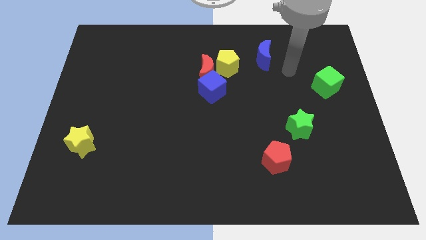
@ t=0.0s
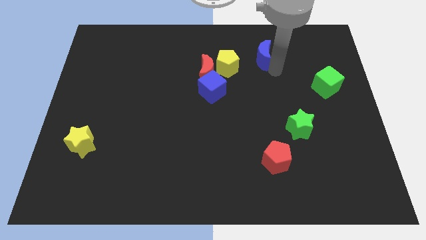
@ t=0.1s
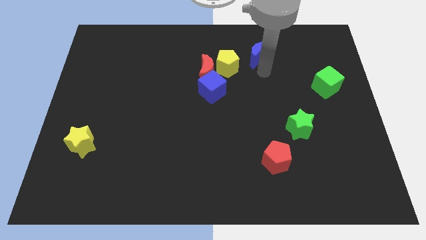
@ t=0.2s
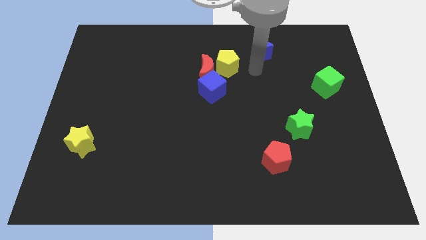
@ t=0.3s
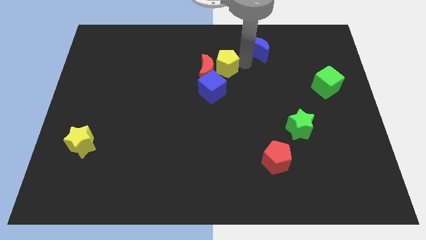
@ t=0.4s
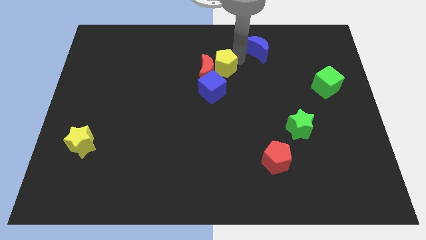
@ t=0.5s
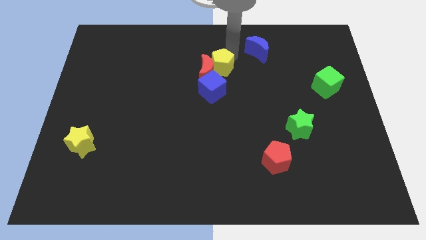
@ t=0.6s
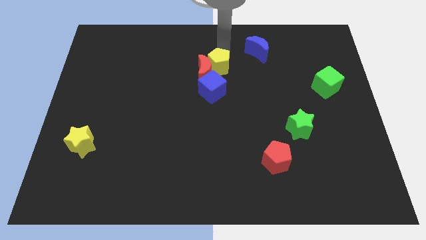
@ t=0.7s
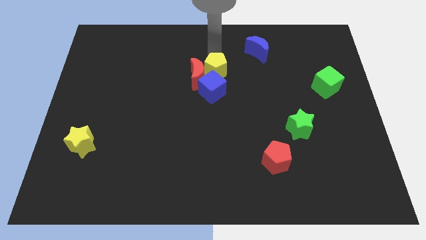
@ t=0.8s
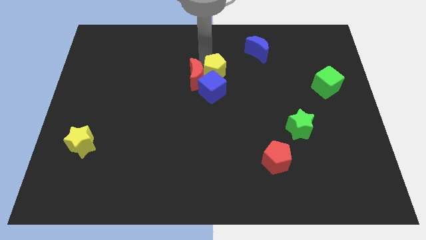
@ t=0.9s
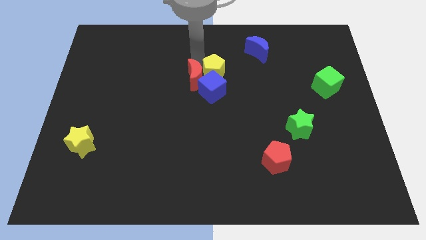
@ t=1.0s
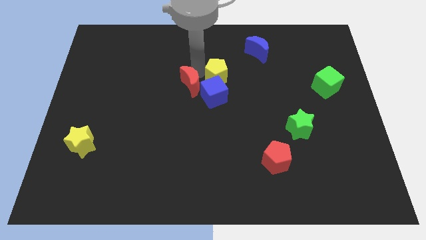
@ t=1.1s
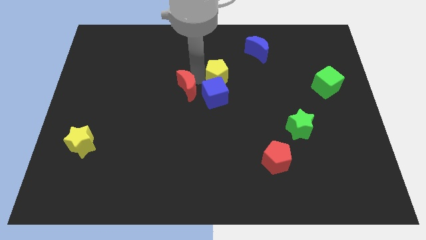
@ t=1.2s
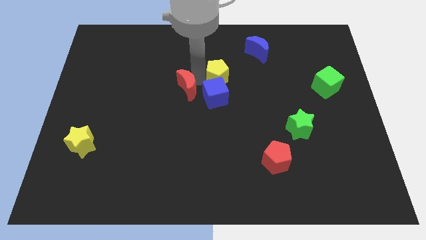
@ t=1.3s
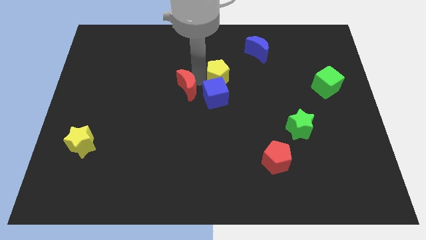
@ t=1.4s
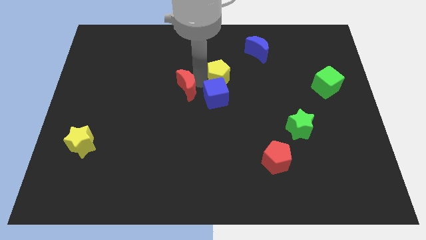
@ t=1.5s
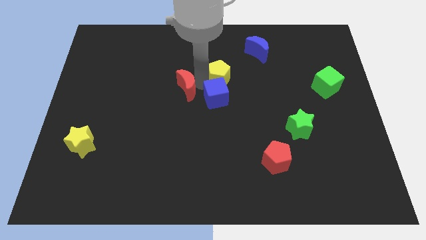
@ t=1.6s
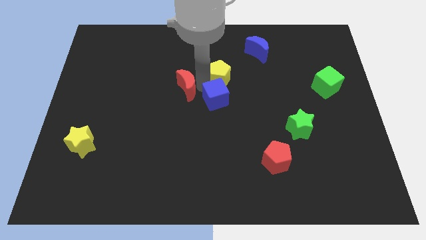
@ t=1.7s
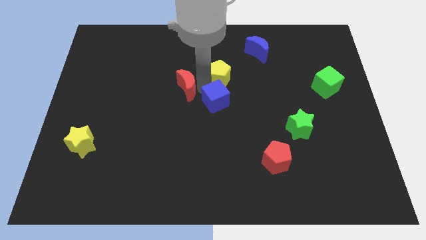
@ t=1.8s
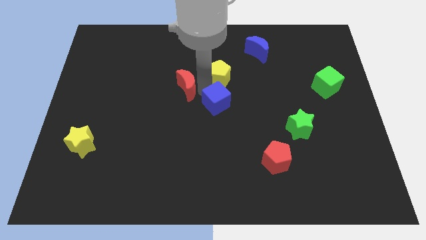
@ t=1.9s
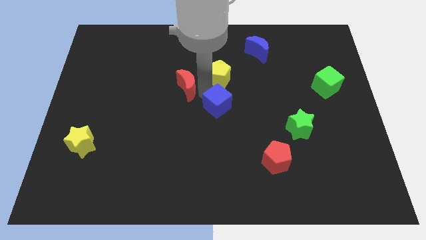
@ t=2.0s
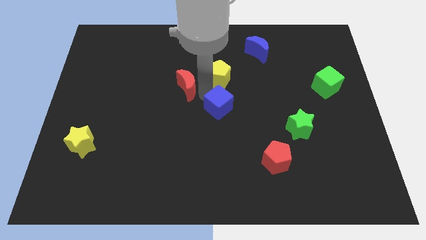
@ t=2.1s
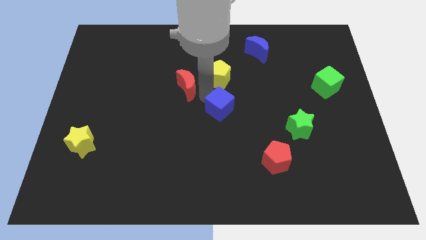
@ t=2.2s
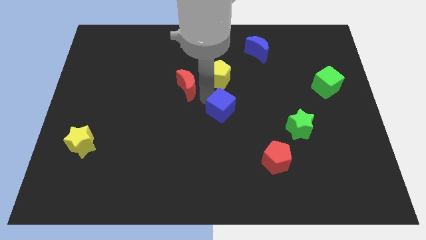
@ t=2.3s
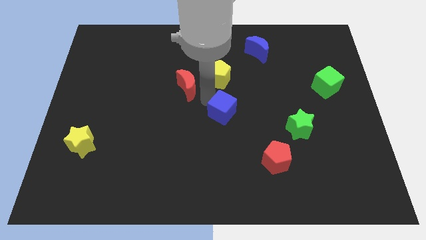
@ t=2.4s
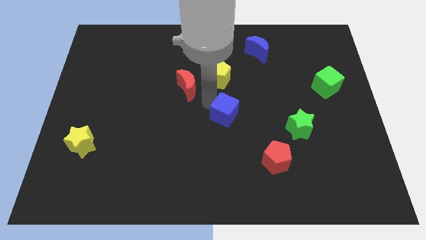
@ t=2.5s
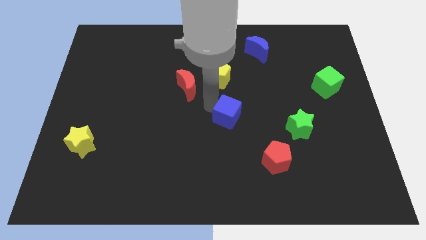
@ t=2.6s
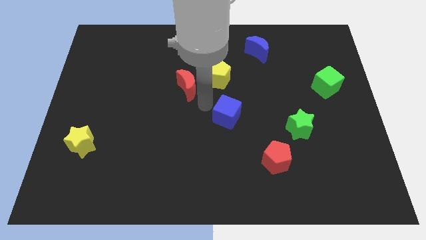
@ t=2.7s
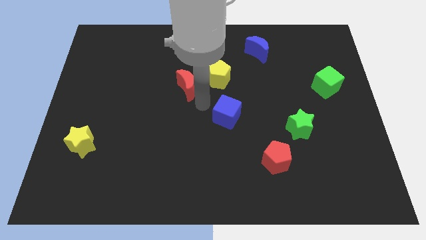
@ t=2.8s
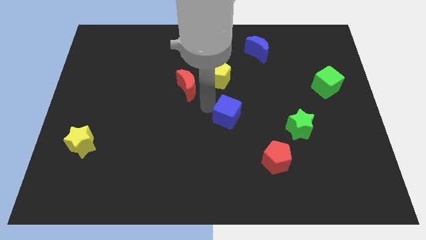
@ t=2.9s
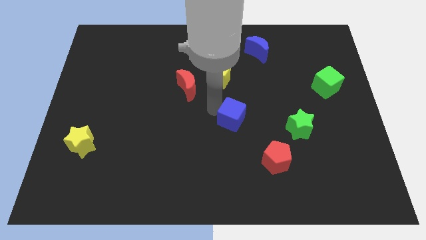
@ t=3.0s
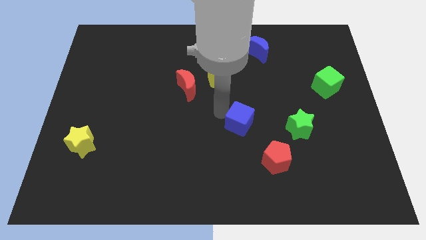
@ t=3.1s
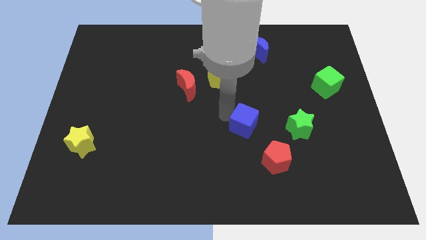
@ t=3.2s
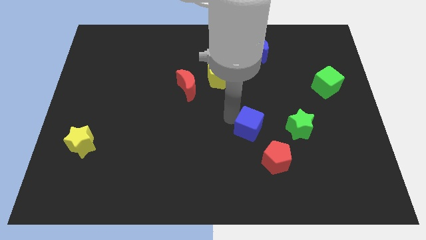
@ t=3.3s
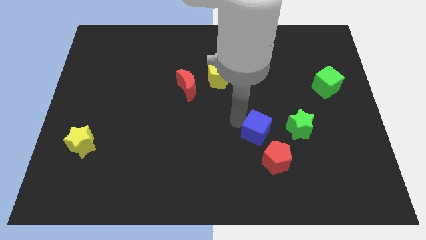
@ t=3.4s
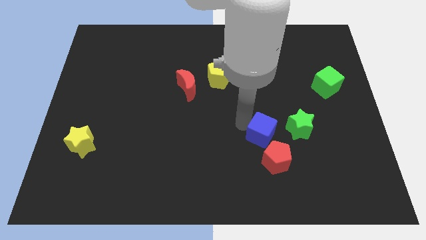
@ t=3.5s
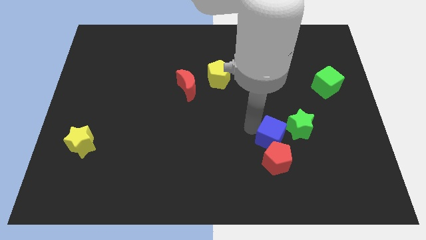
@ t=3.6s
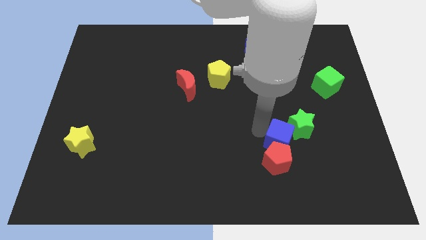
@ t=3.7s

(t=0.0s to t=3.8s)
move the blue cube diagonally downwards and to the right

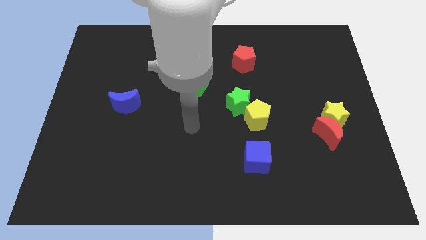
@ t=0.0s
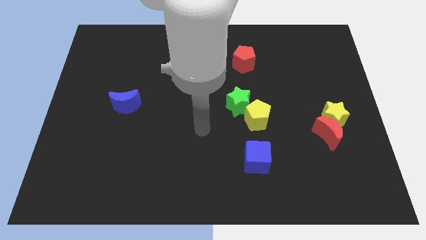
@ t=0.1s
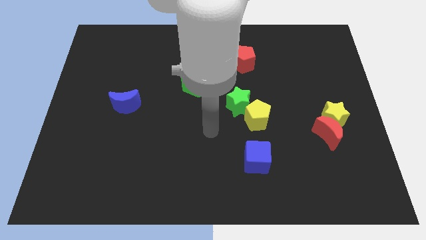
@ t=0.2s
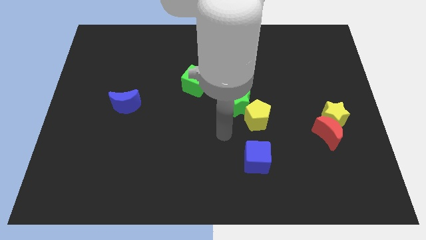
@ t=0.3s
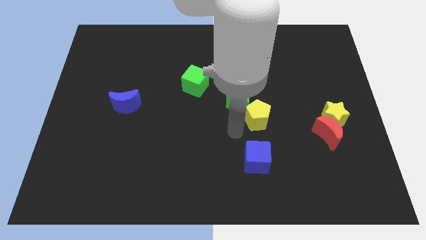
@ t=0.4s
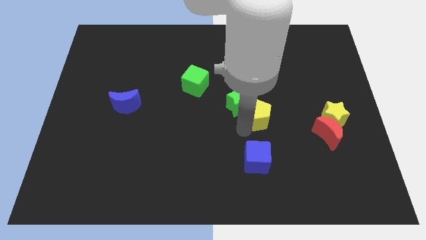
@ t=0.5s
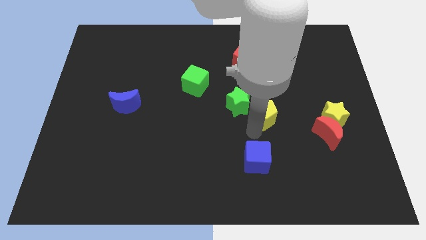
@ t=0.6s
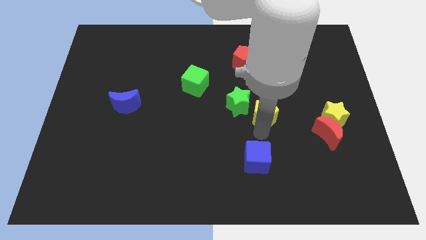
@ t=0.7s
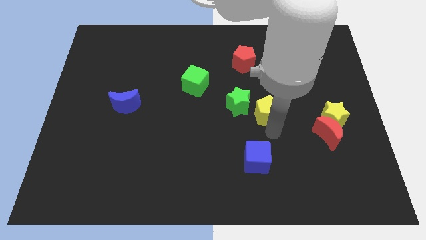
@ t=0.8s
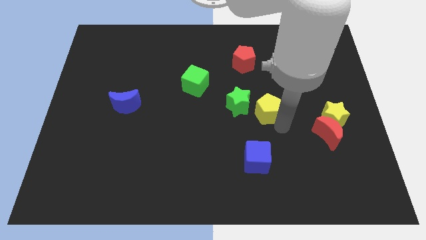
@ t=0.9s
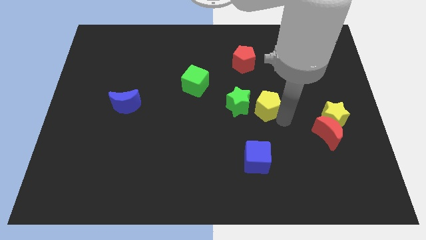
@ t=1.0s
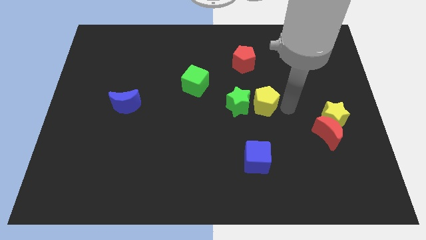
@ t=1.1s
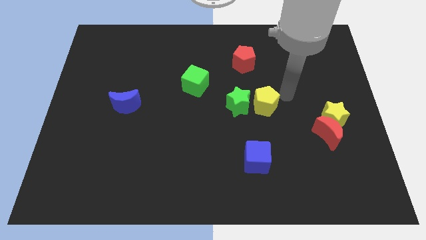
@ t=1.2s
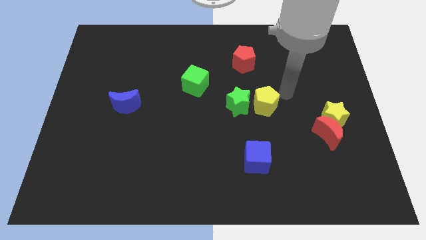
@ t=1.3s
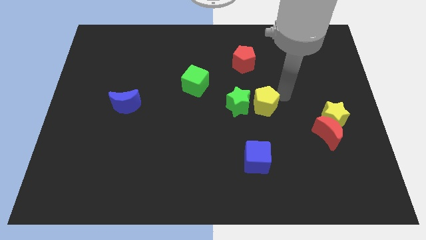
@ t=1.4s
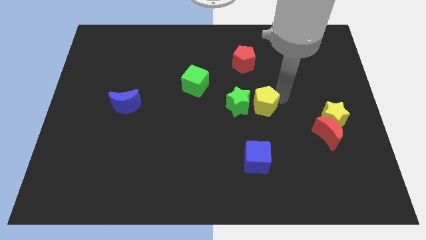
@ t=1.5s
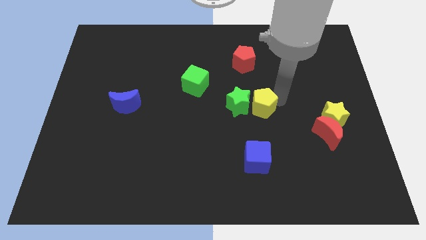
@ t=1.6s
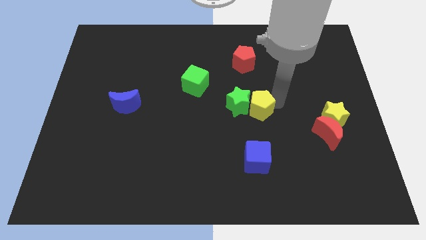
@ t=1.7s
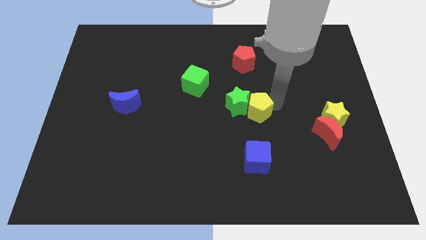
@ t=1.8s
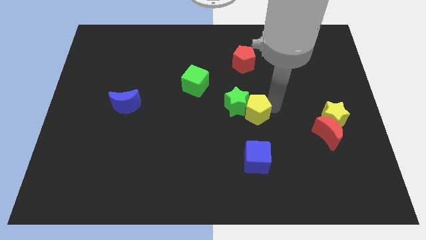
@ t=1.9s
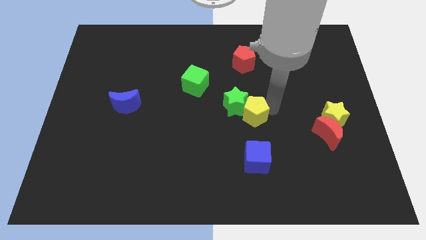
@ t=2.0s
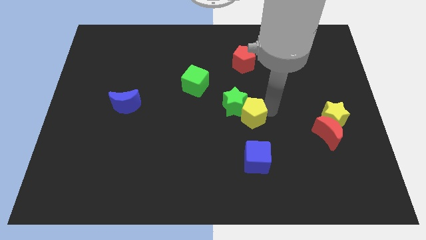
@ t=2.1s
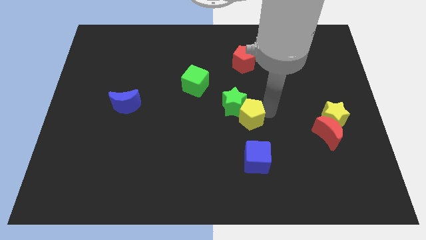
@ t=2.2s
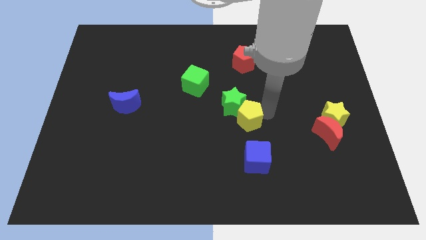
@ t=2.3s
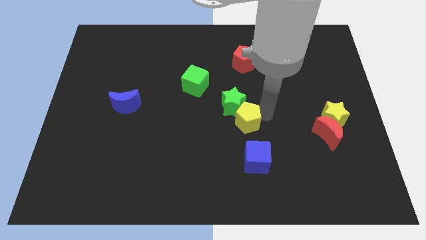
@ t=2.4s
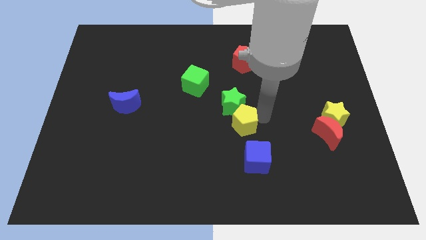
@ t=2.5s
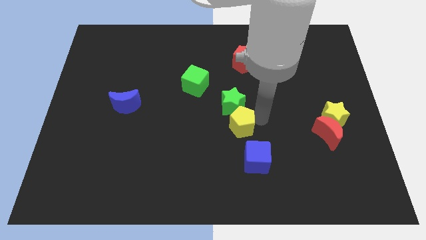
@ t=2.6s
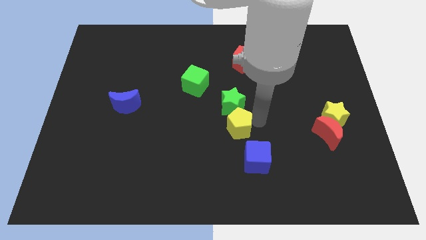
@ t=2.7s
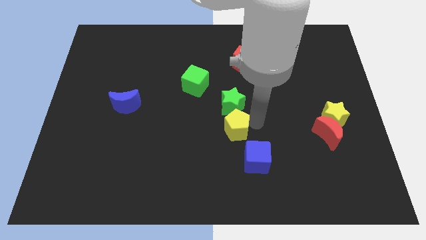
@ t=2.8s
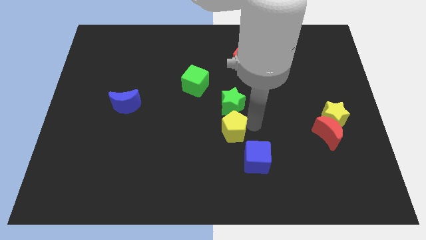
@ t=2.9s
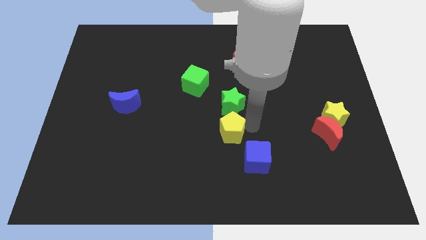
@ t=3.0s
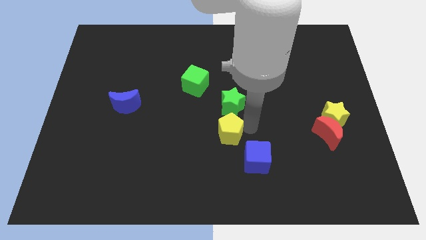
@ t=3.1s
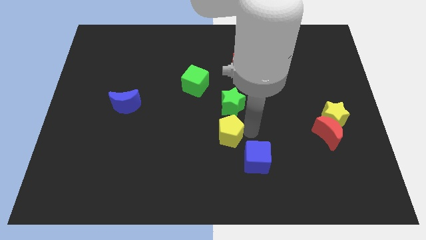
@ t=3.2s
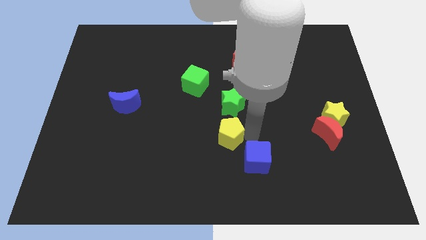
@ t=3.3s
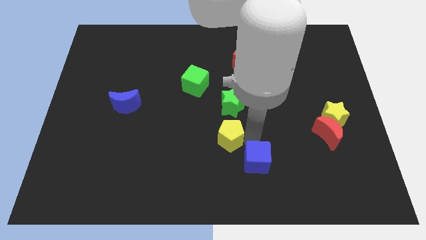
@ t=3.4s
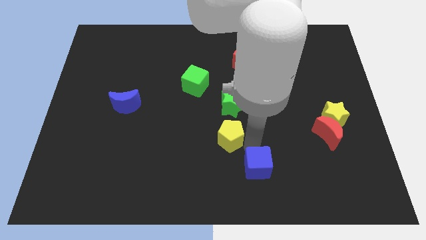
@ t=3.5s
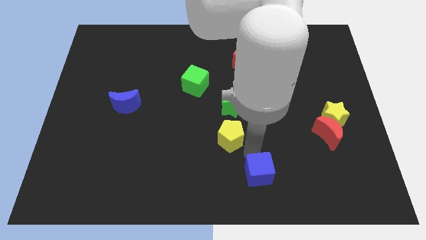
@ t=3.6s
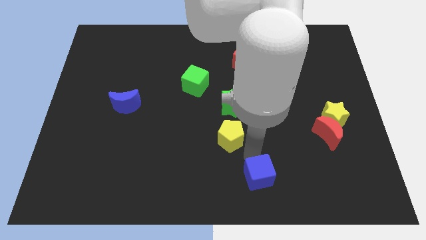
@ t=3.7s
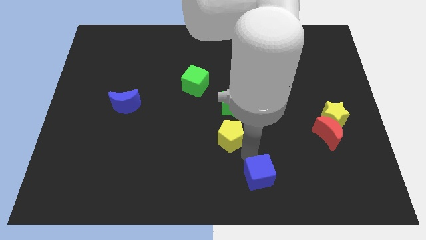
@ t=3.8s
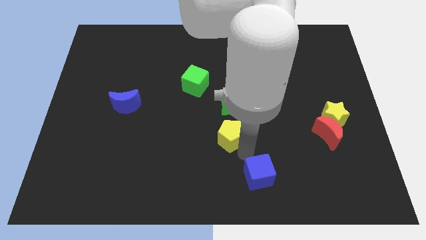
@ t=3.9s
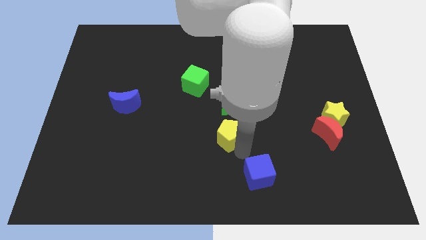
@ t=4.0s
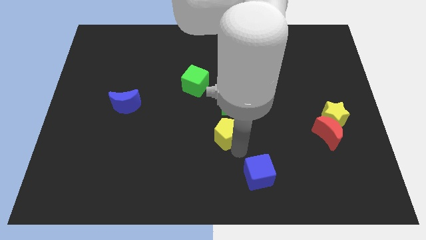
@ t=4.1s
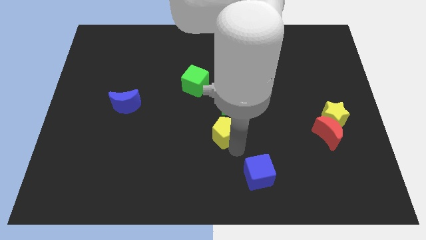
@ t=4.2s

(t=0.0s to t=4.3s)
slide the yellow pentagon somewhat left
